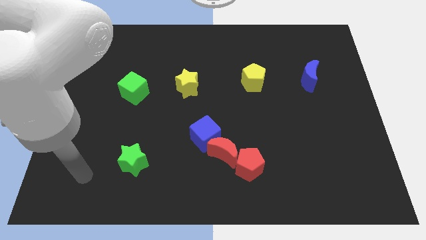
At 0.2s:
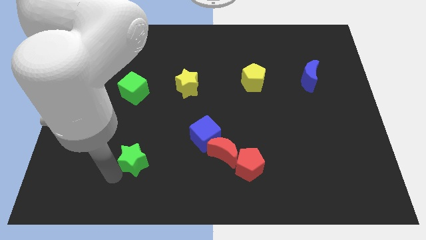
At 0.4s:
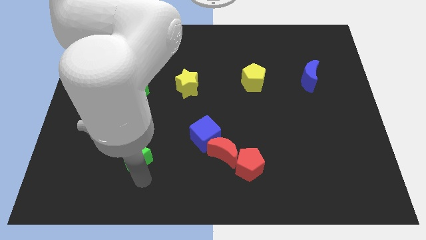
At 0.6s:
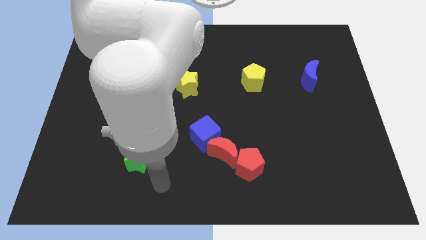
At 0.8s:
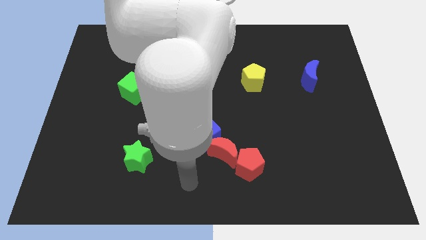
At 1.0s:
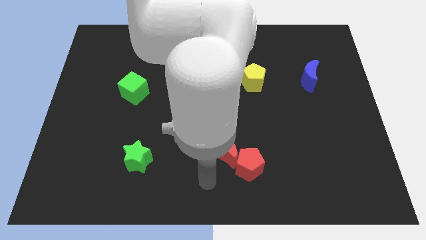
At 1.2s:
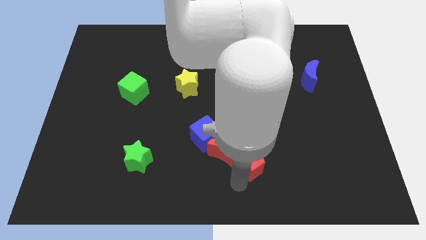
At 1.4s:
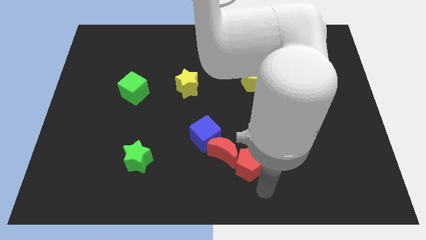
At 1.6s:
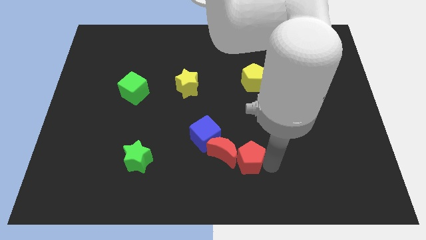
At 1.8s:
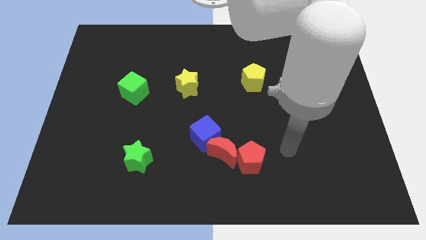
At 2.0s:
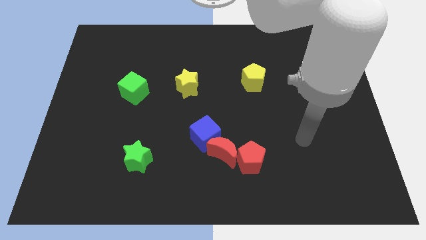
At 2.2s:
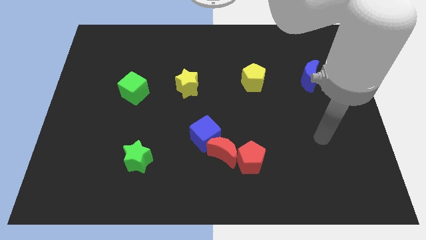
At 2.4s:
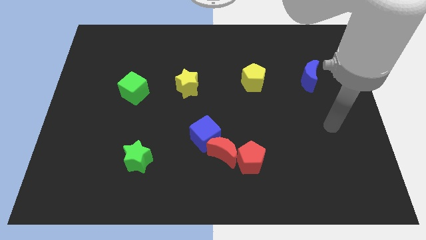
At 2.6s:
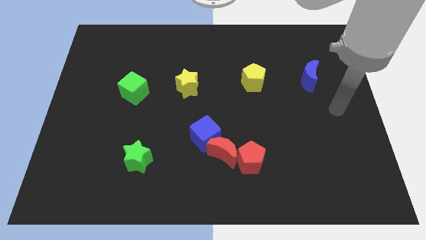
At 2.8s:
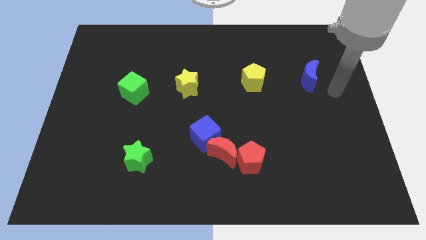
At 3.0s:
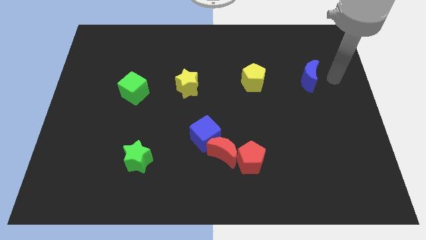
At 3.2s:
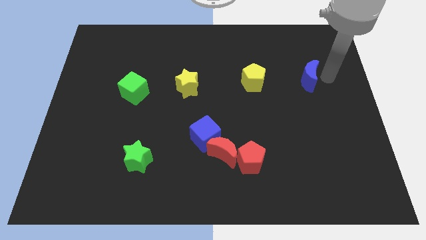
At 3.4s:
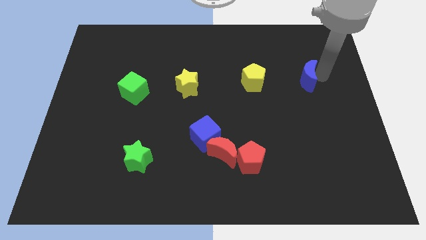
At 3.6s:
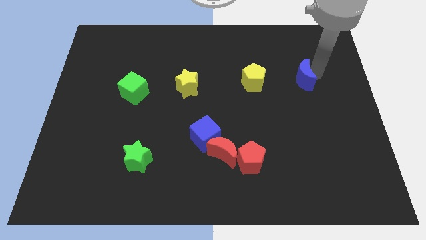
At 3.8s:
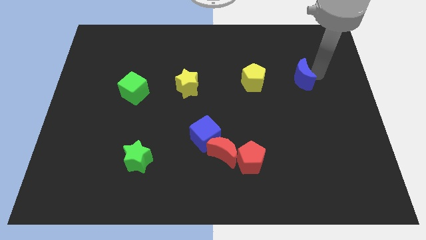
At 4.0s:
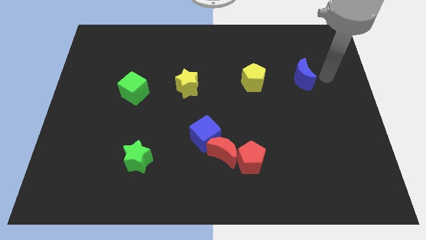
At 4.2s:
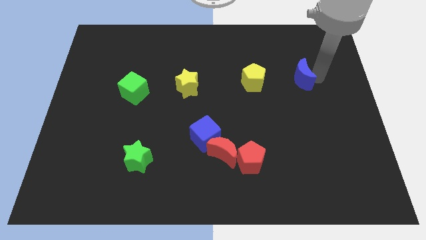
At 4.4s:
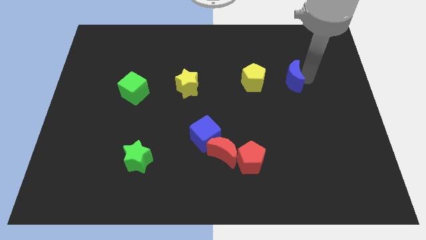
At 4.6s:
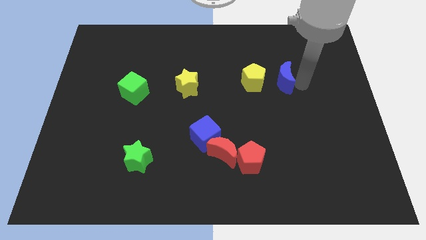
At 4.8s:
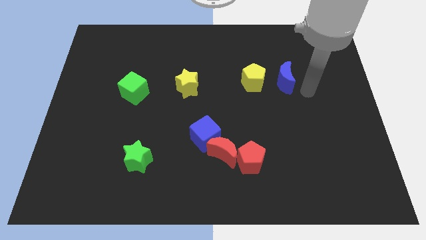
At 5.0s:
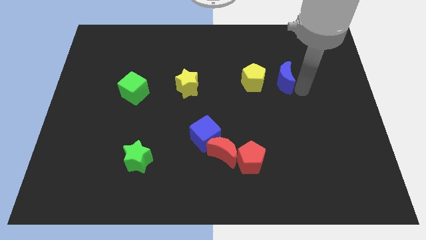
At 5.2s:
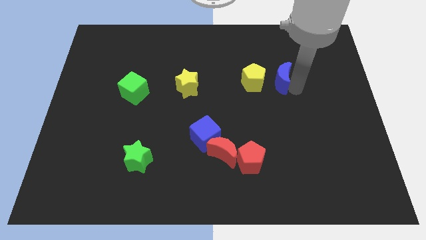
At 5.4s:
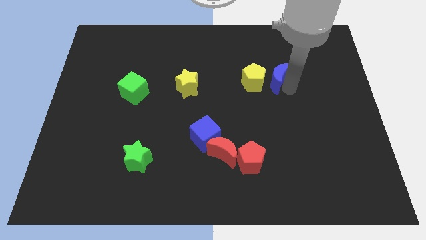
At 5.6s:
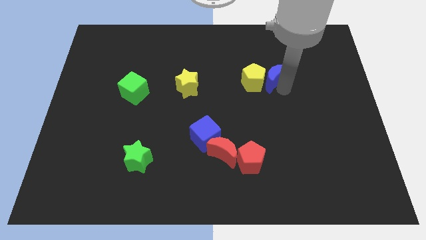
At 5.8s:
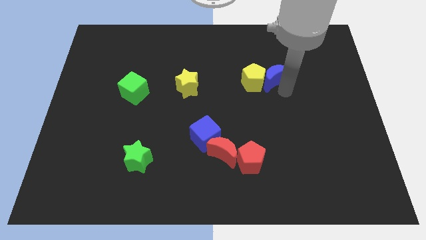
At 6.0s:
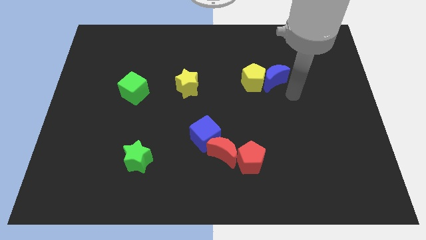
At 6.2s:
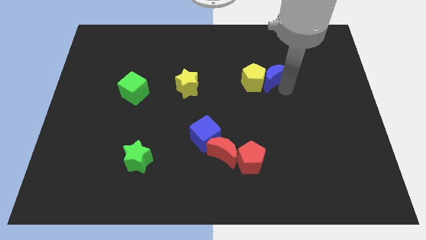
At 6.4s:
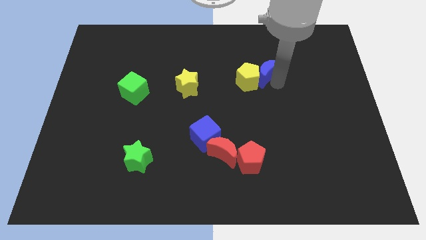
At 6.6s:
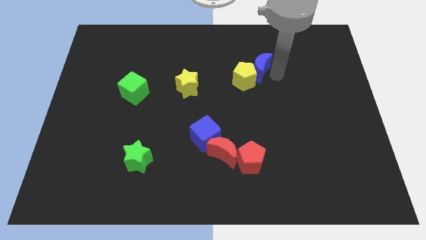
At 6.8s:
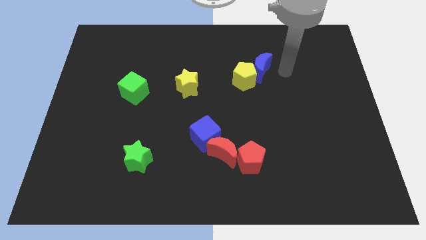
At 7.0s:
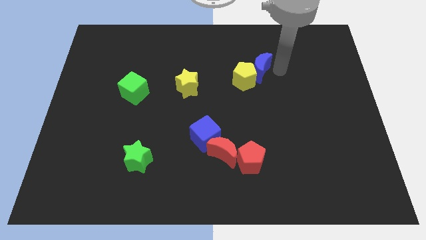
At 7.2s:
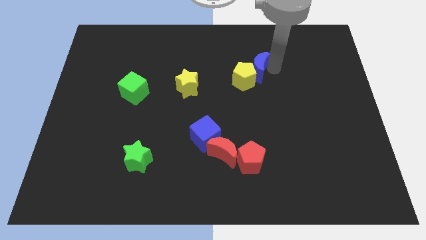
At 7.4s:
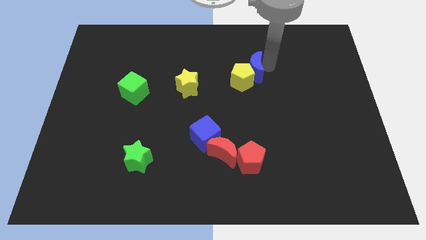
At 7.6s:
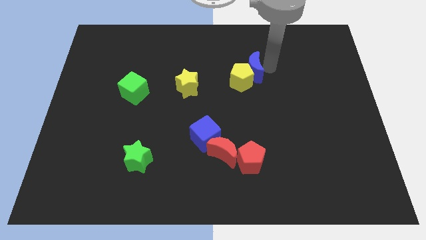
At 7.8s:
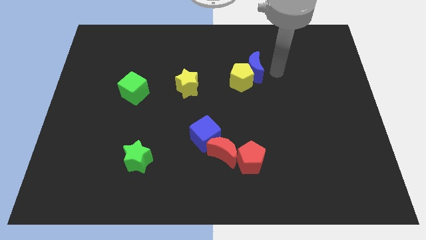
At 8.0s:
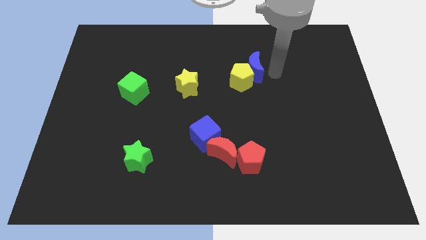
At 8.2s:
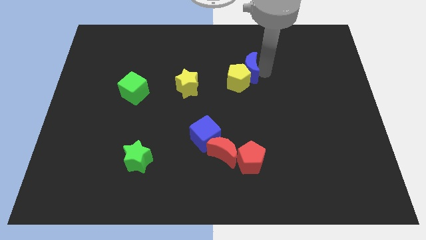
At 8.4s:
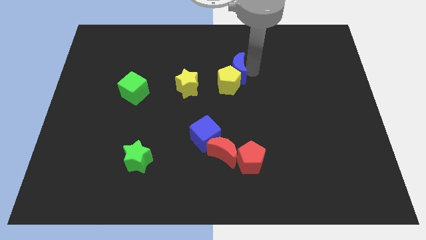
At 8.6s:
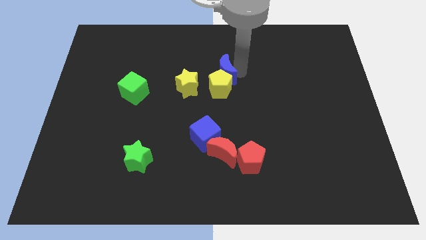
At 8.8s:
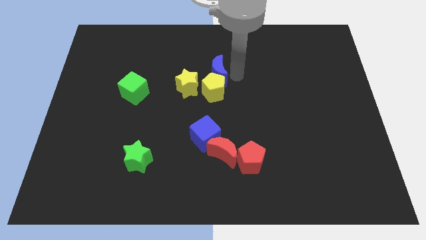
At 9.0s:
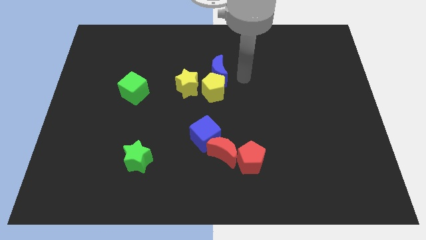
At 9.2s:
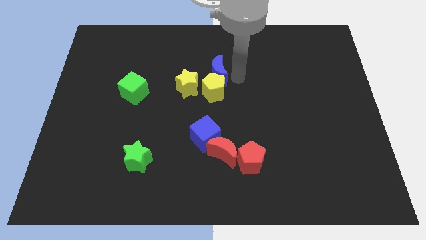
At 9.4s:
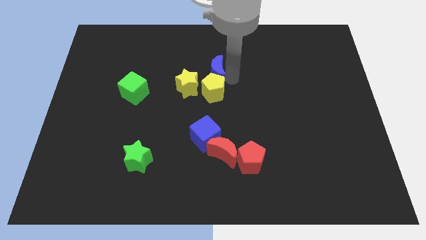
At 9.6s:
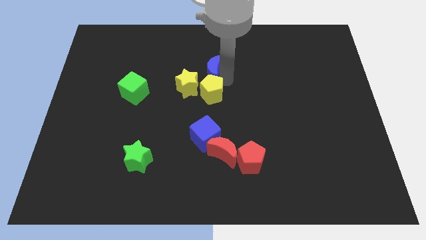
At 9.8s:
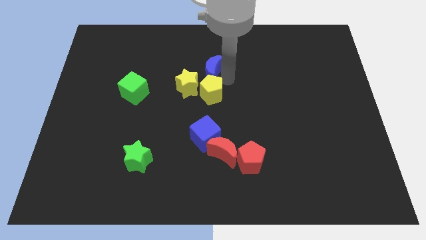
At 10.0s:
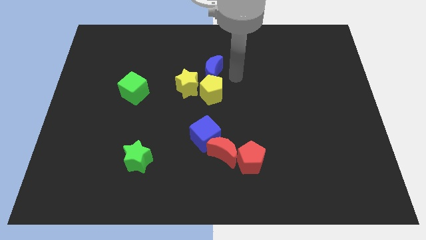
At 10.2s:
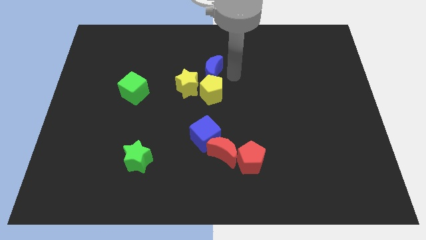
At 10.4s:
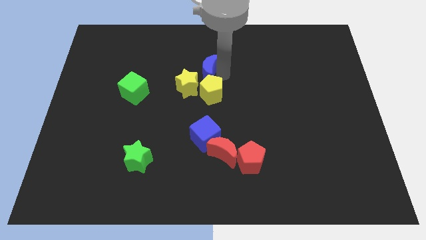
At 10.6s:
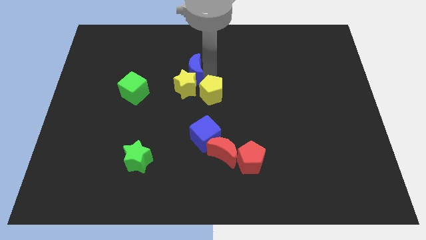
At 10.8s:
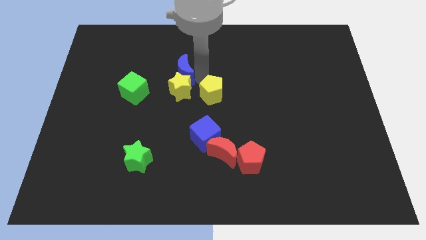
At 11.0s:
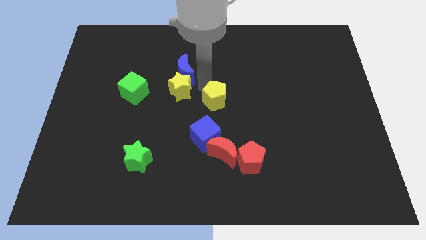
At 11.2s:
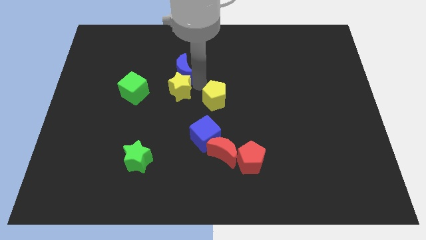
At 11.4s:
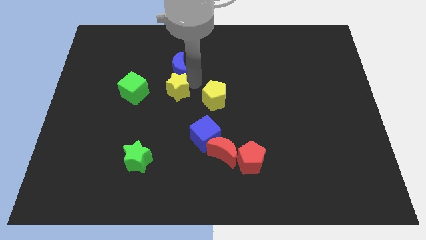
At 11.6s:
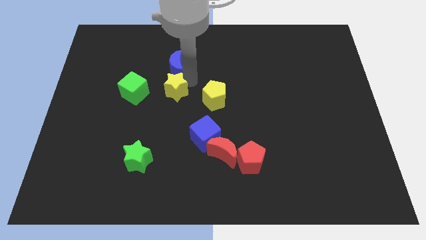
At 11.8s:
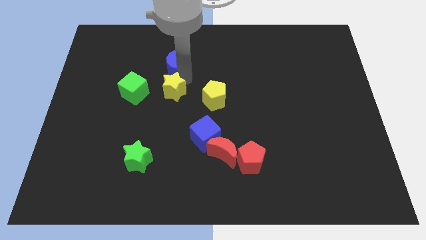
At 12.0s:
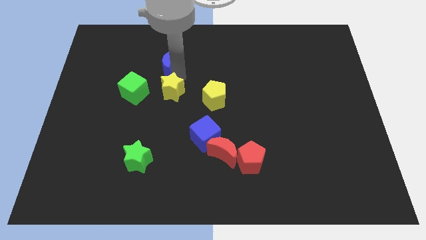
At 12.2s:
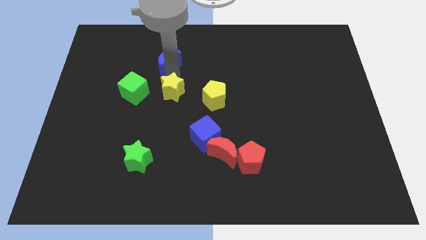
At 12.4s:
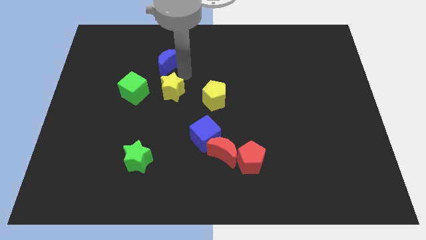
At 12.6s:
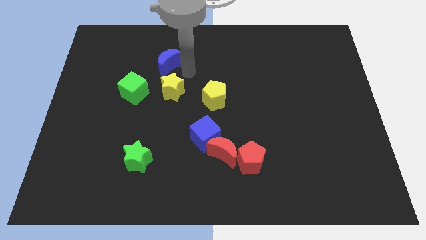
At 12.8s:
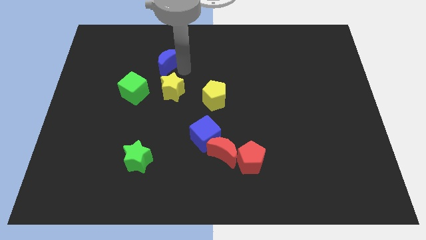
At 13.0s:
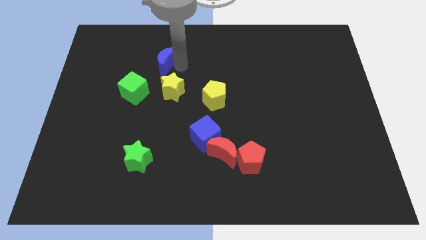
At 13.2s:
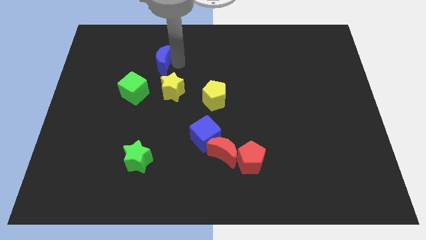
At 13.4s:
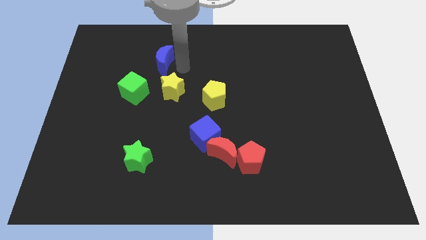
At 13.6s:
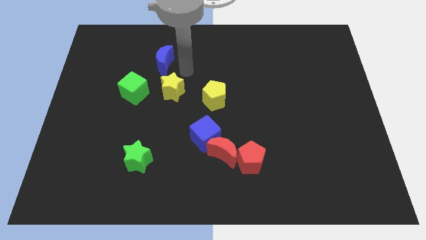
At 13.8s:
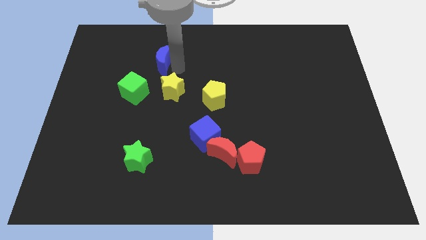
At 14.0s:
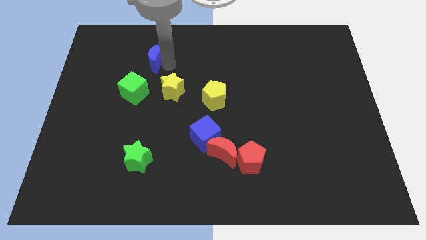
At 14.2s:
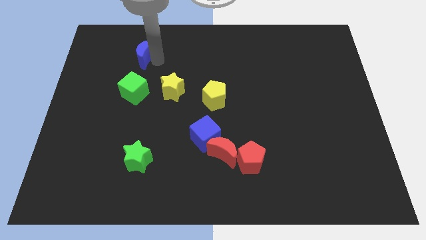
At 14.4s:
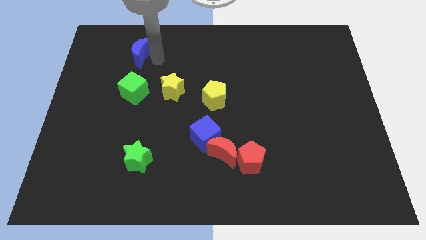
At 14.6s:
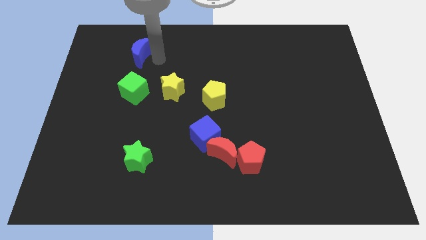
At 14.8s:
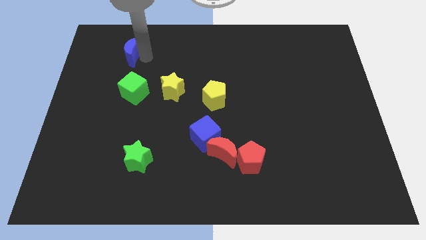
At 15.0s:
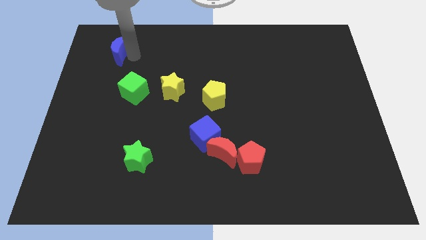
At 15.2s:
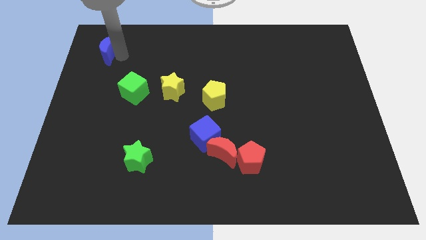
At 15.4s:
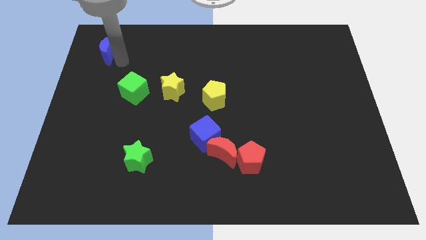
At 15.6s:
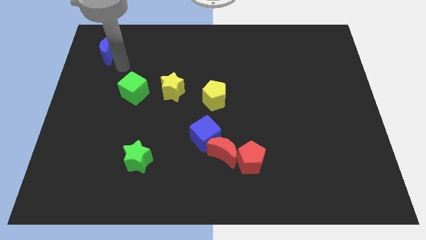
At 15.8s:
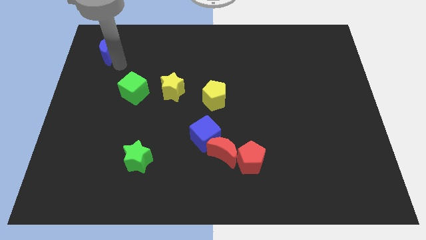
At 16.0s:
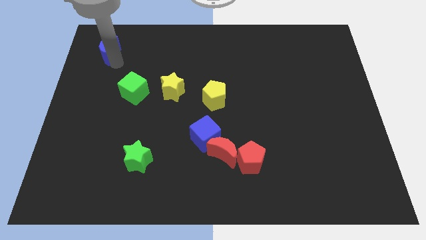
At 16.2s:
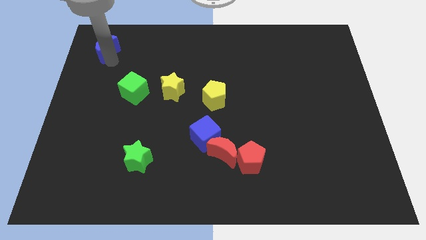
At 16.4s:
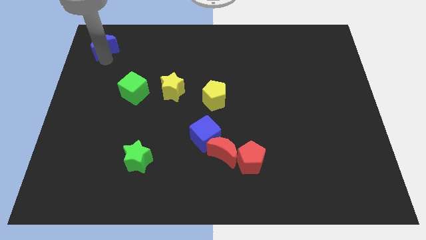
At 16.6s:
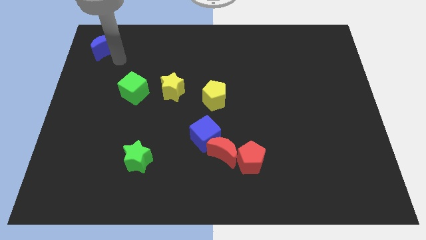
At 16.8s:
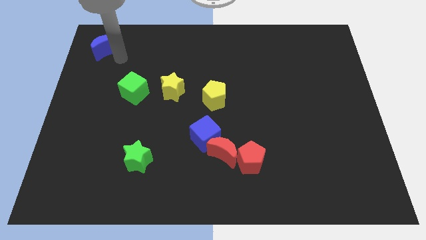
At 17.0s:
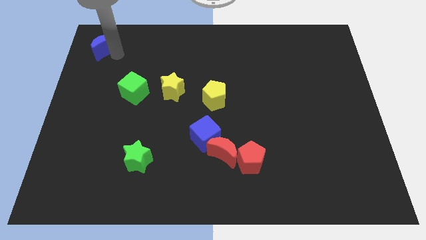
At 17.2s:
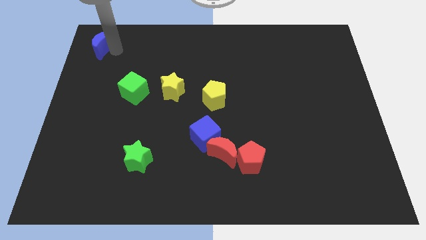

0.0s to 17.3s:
push the blue moon to the top left of the board
